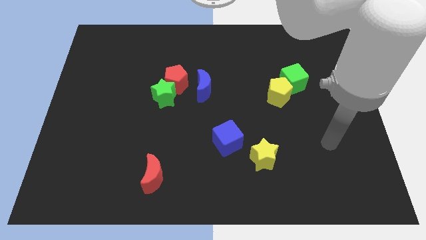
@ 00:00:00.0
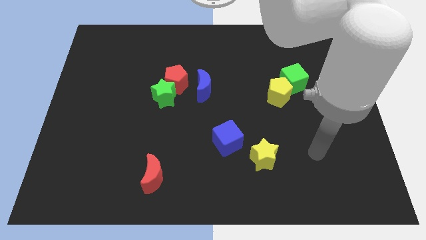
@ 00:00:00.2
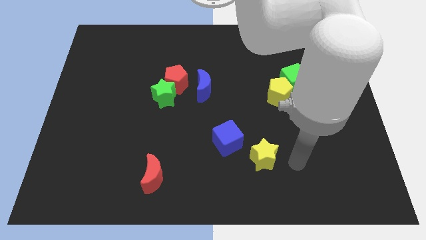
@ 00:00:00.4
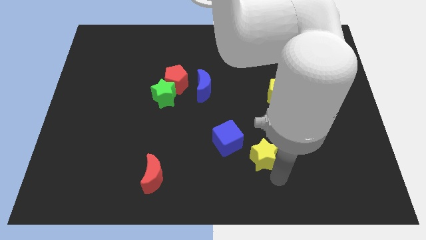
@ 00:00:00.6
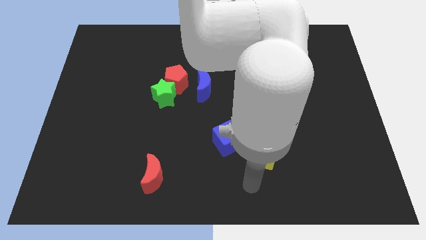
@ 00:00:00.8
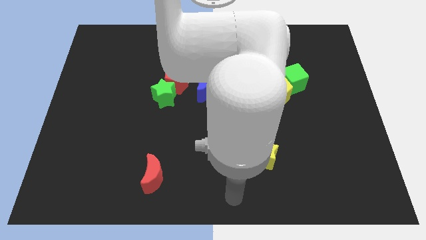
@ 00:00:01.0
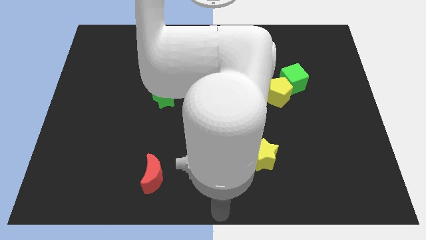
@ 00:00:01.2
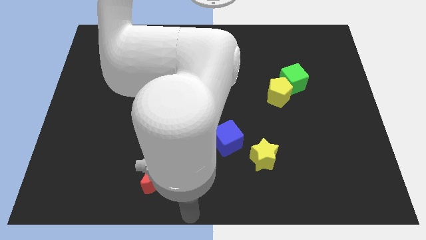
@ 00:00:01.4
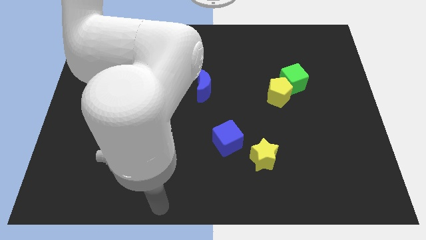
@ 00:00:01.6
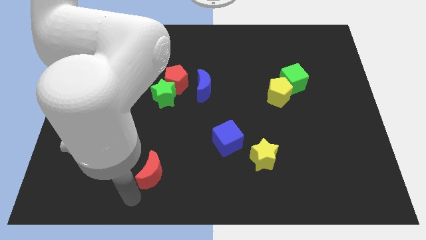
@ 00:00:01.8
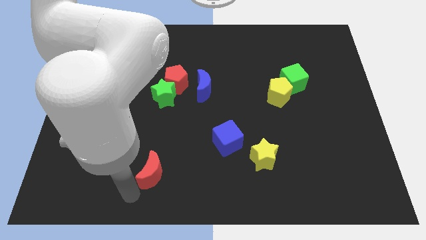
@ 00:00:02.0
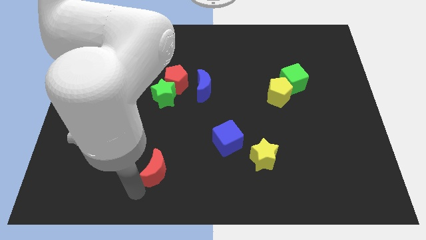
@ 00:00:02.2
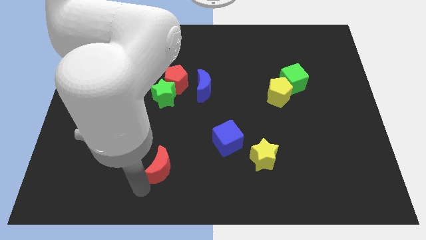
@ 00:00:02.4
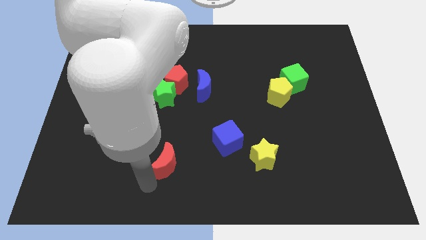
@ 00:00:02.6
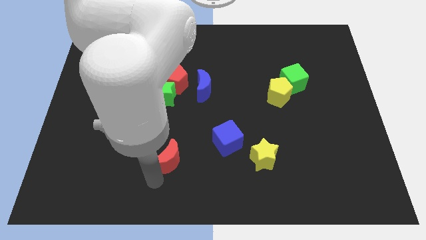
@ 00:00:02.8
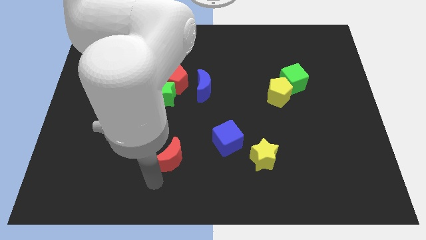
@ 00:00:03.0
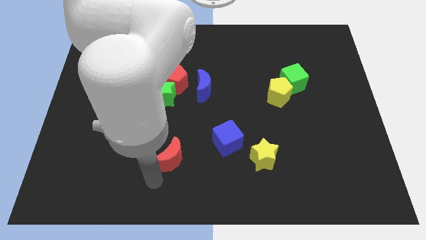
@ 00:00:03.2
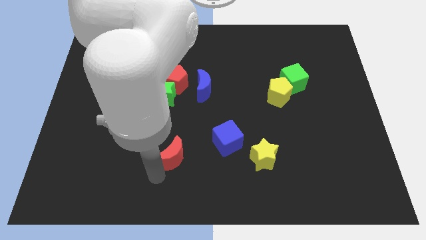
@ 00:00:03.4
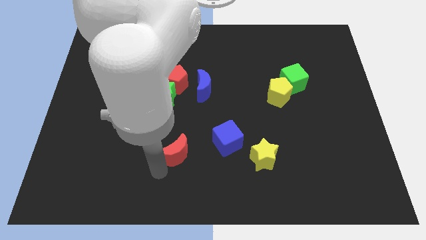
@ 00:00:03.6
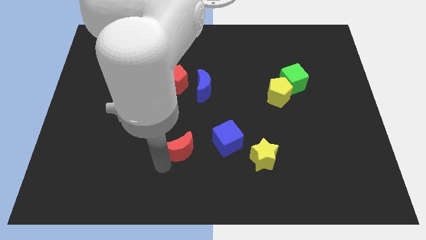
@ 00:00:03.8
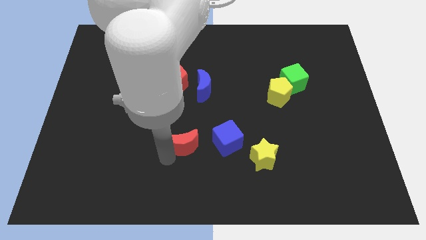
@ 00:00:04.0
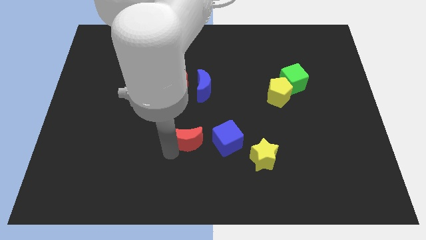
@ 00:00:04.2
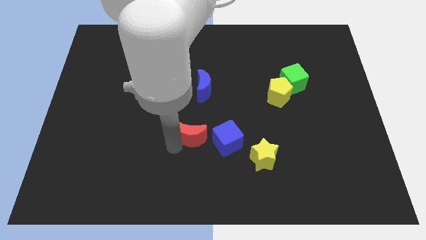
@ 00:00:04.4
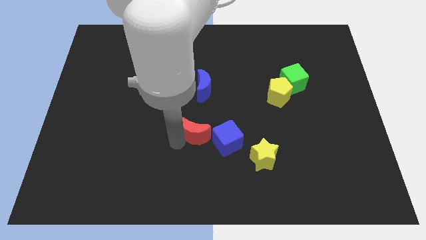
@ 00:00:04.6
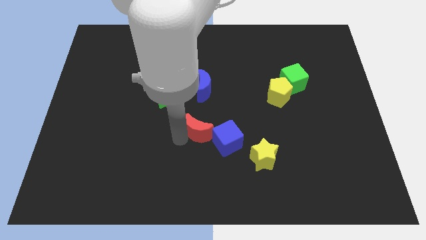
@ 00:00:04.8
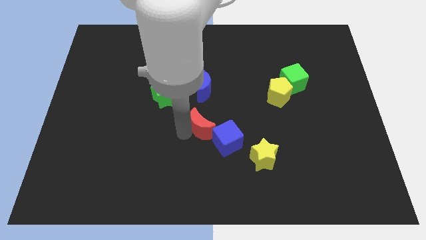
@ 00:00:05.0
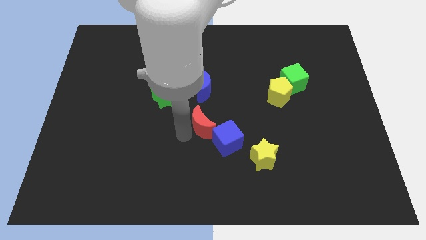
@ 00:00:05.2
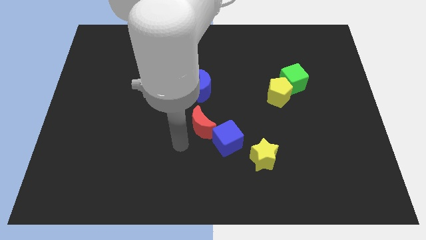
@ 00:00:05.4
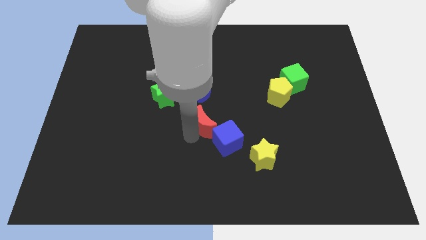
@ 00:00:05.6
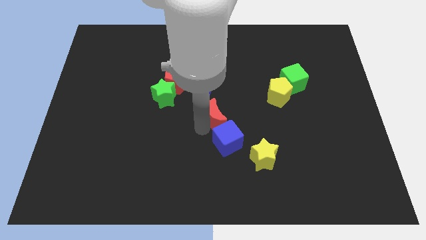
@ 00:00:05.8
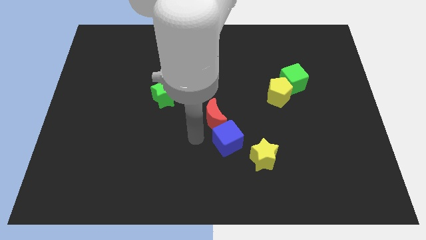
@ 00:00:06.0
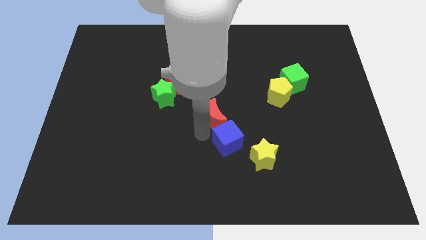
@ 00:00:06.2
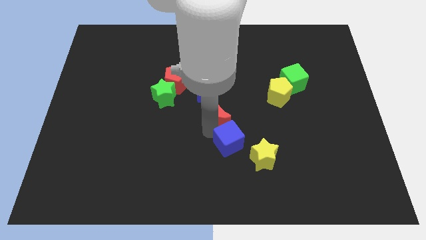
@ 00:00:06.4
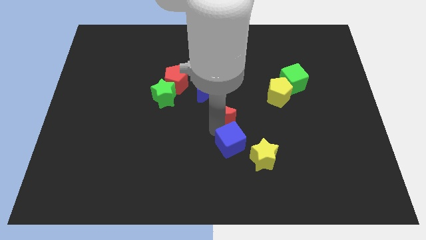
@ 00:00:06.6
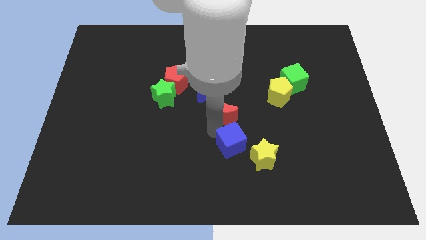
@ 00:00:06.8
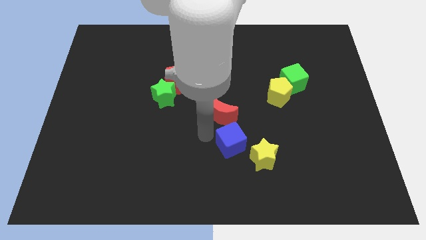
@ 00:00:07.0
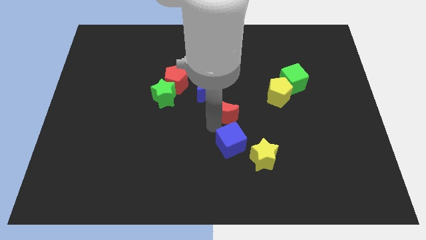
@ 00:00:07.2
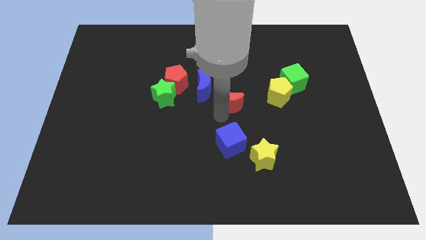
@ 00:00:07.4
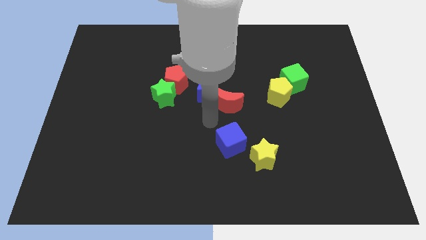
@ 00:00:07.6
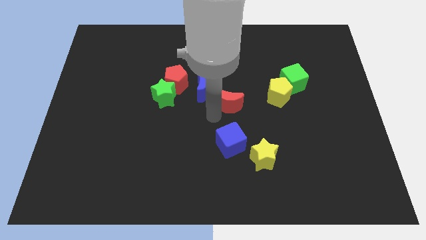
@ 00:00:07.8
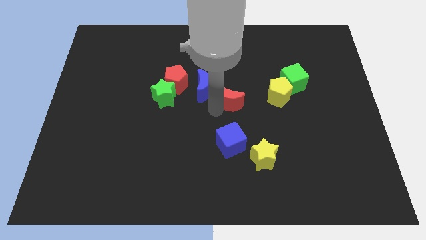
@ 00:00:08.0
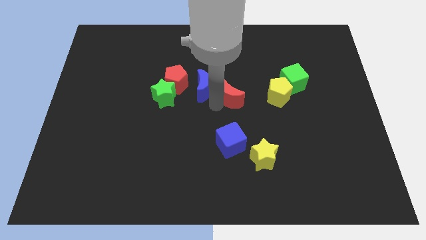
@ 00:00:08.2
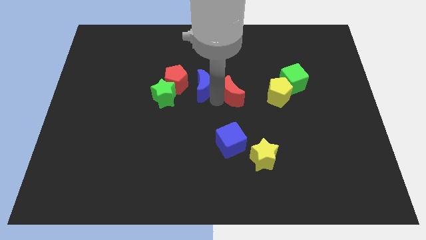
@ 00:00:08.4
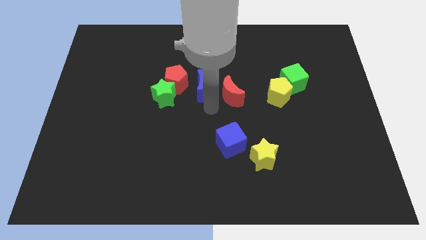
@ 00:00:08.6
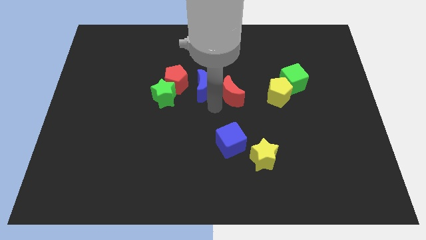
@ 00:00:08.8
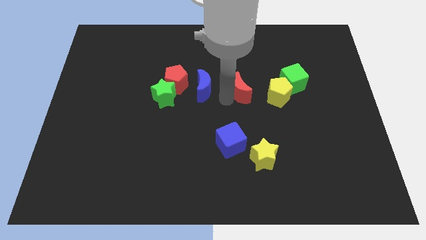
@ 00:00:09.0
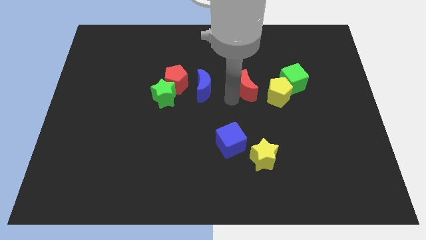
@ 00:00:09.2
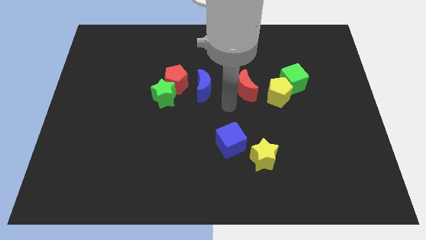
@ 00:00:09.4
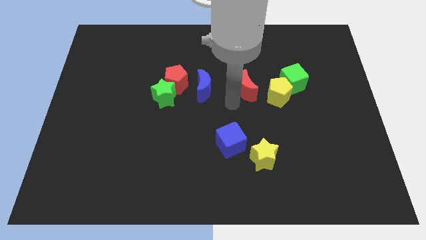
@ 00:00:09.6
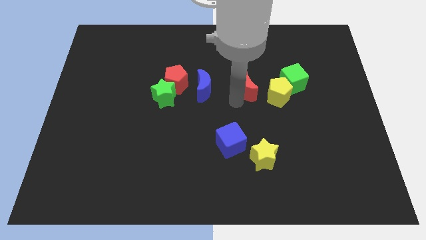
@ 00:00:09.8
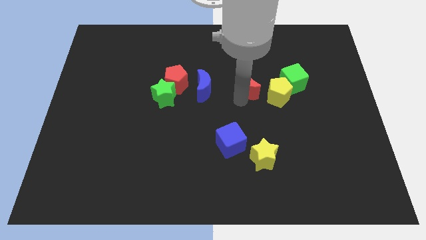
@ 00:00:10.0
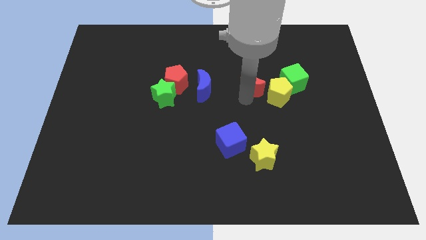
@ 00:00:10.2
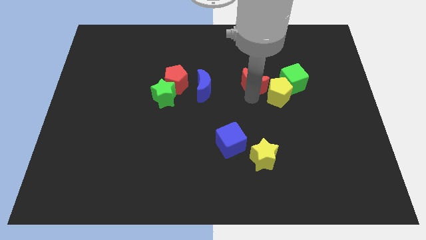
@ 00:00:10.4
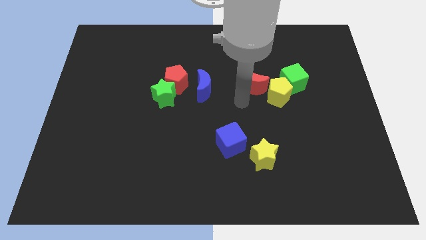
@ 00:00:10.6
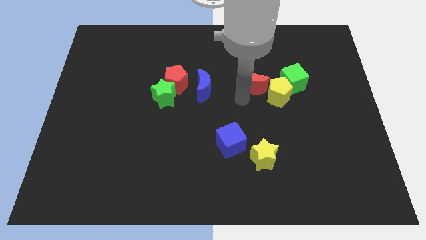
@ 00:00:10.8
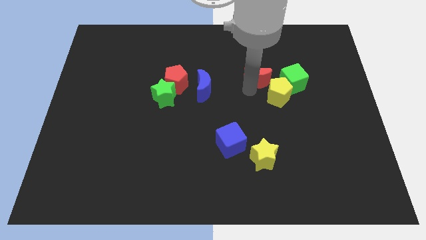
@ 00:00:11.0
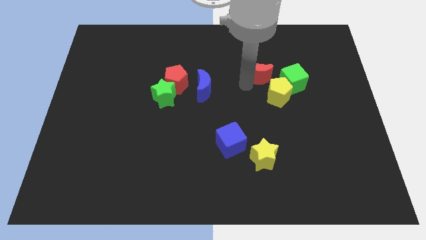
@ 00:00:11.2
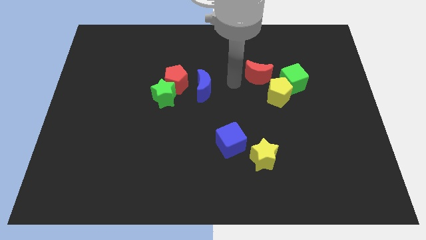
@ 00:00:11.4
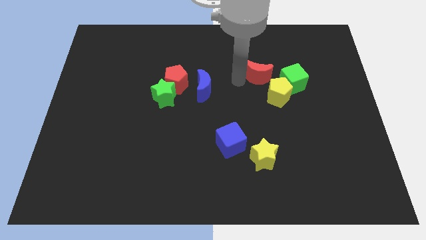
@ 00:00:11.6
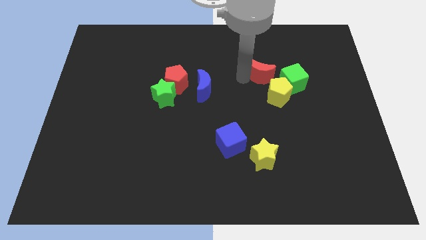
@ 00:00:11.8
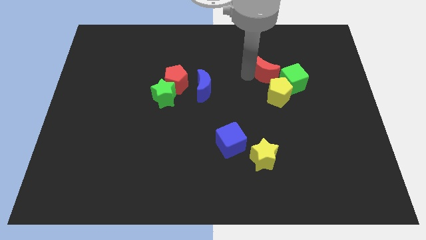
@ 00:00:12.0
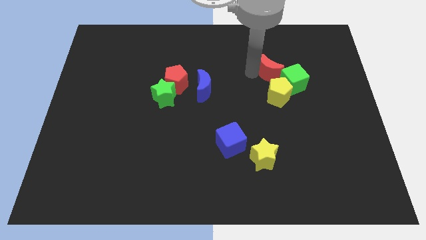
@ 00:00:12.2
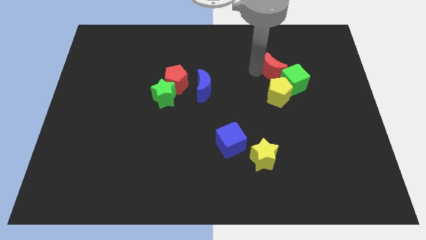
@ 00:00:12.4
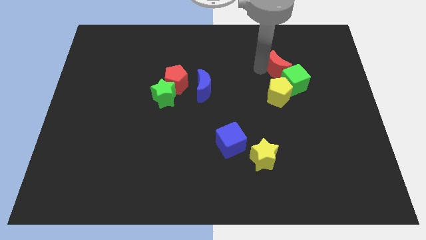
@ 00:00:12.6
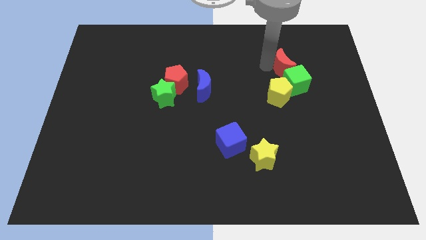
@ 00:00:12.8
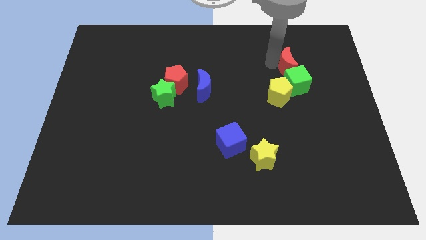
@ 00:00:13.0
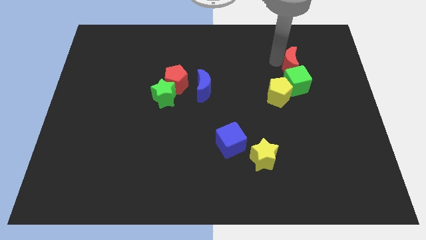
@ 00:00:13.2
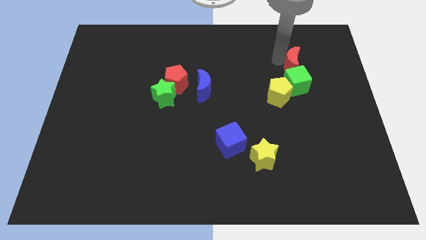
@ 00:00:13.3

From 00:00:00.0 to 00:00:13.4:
put the red moon diagonally up and to the right of the green cube
